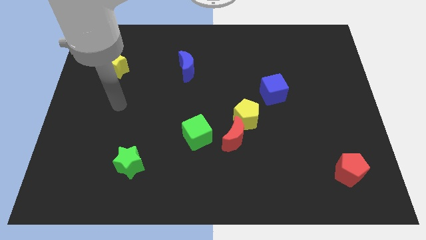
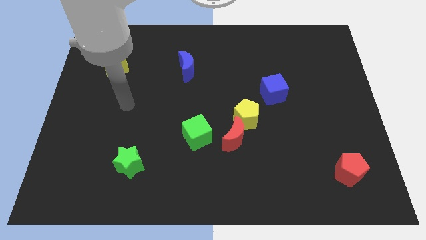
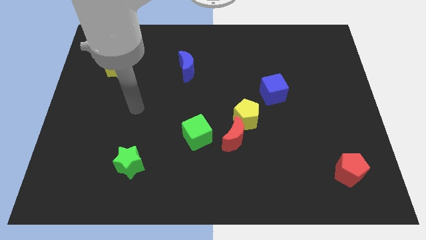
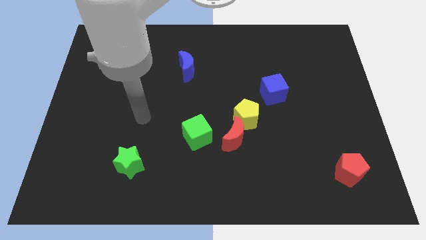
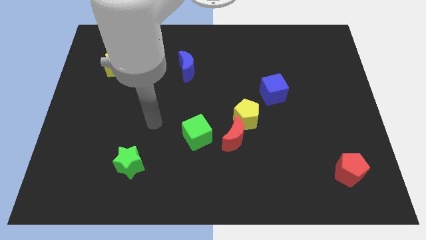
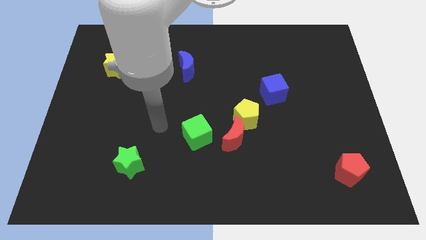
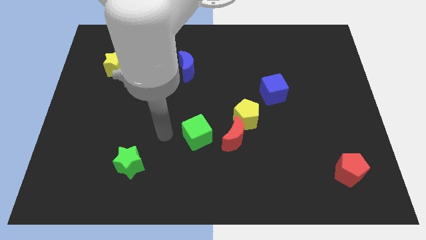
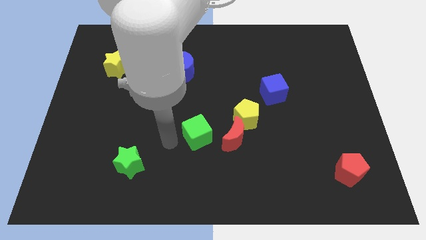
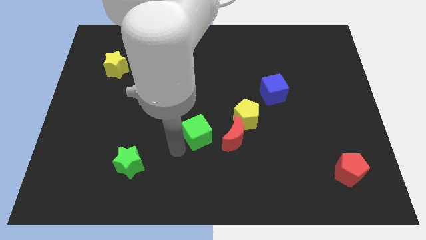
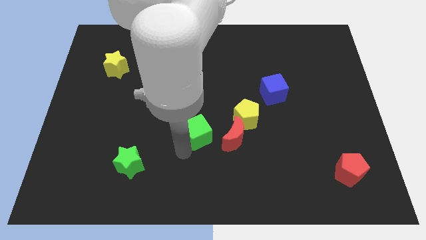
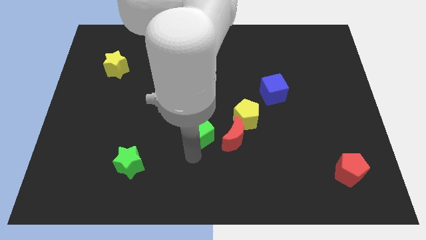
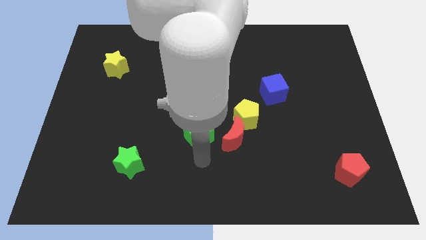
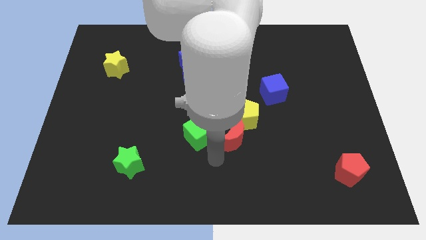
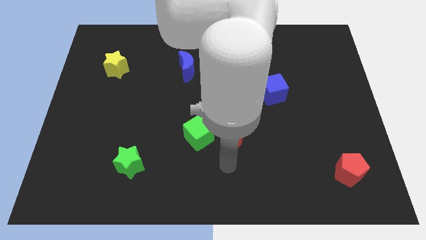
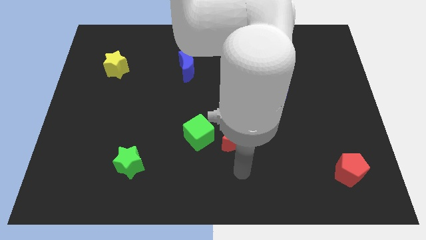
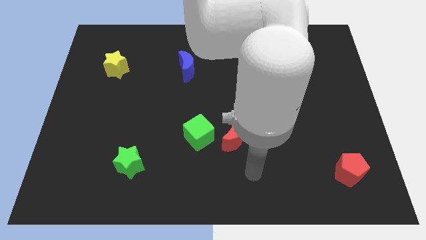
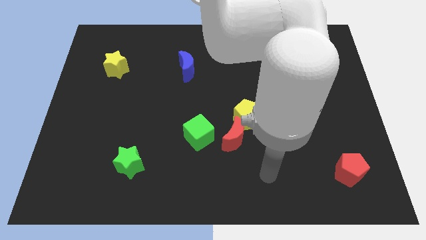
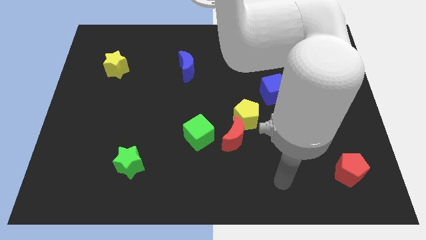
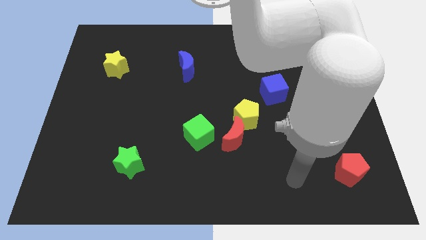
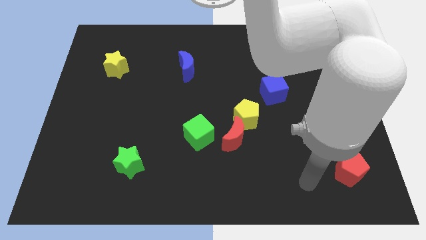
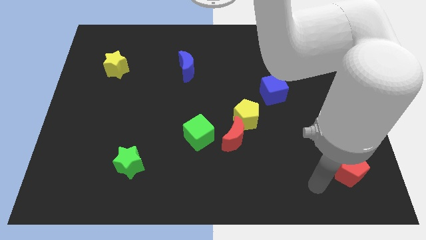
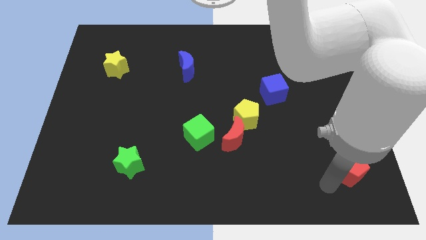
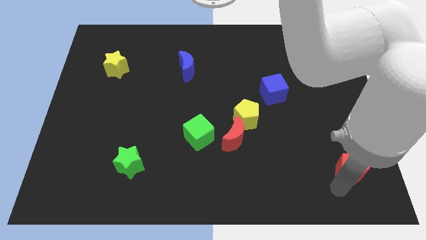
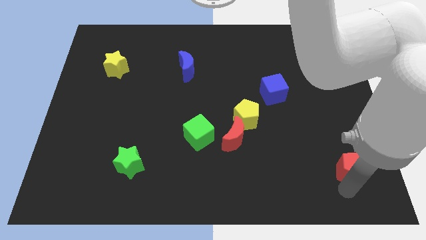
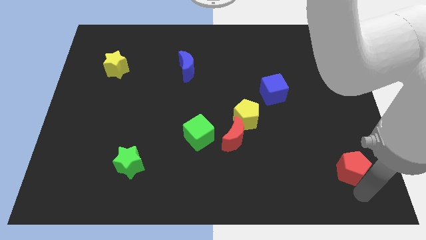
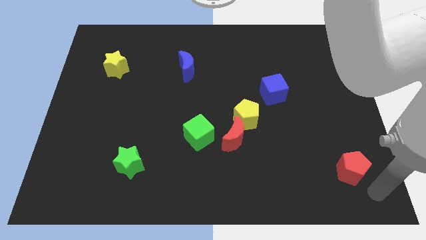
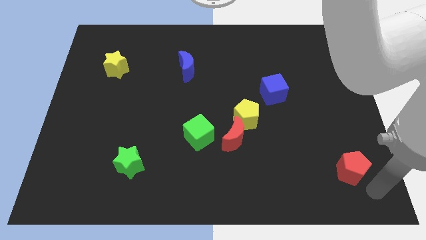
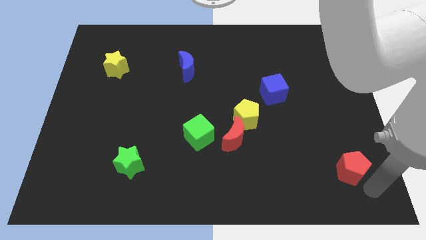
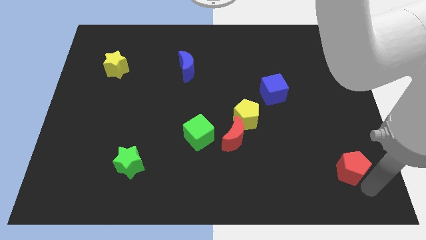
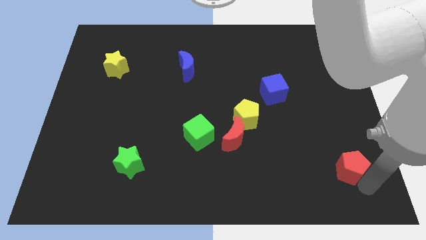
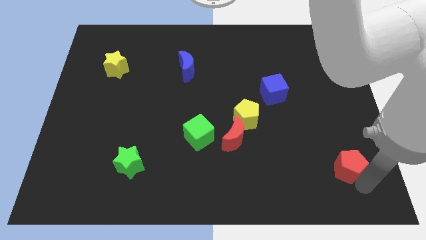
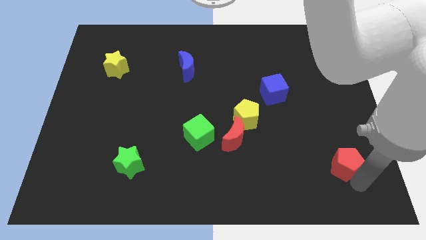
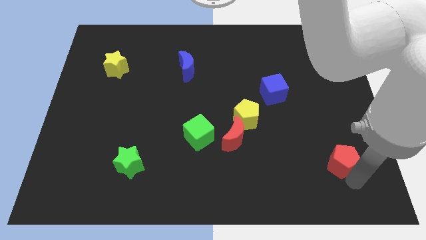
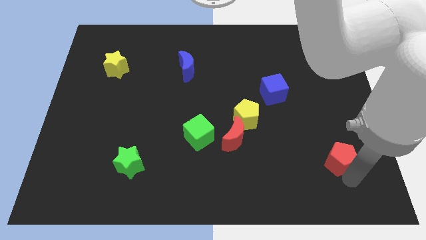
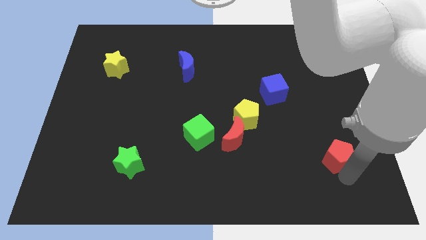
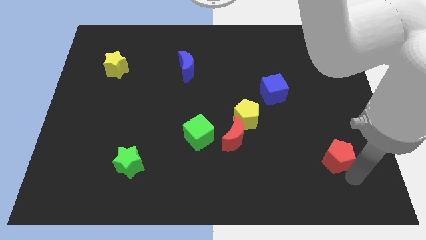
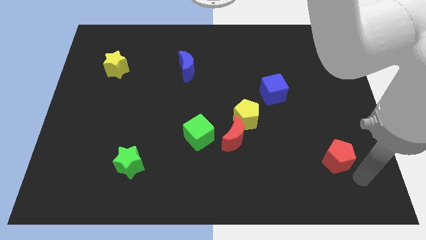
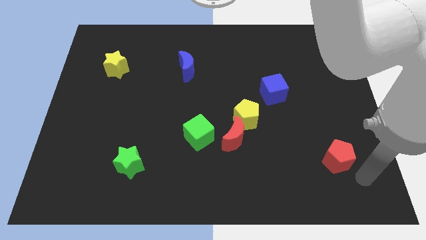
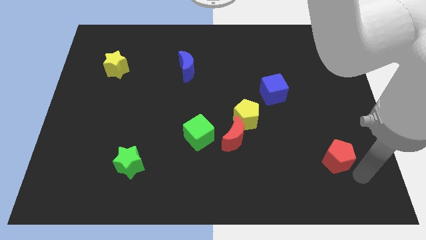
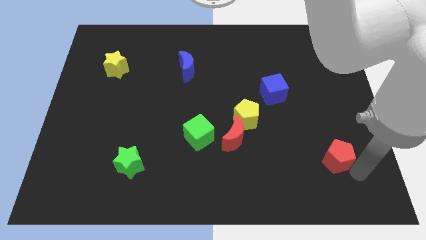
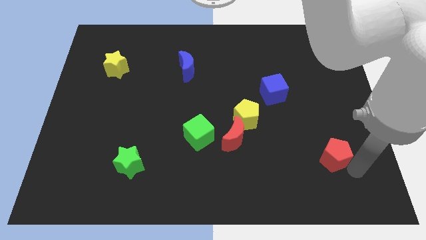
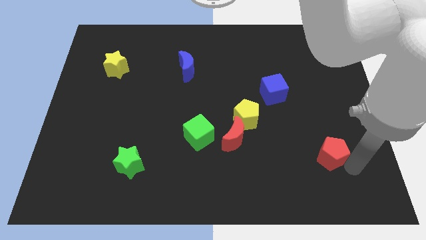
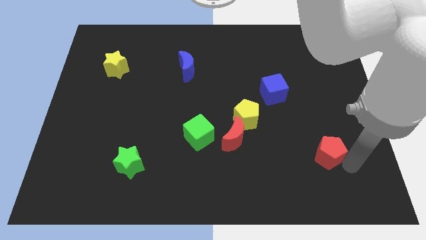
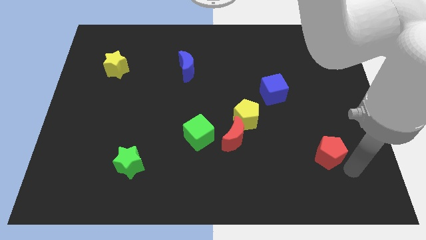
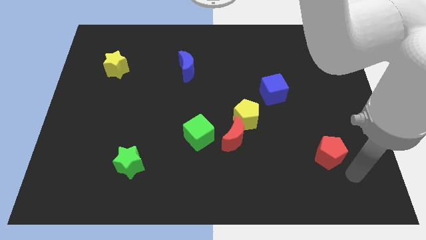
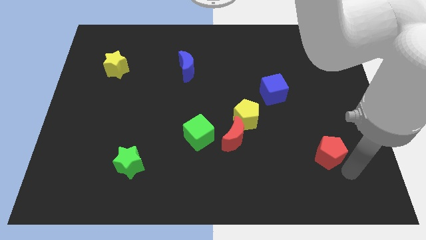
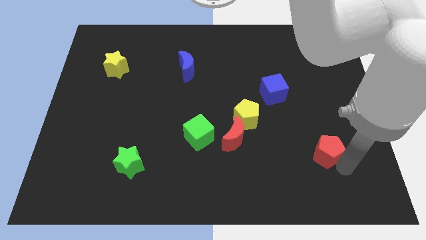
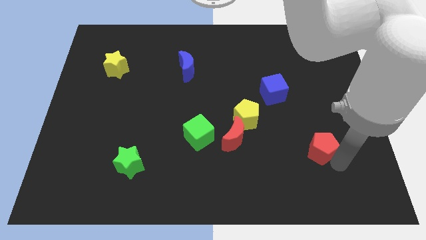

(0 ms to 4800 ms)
slightly move the red pentagon upwards and to the left

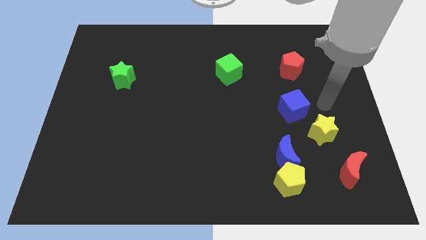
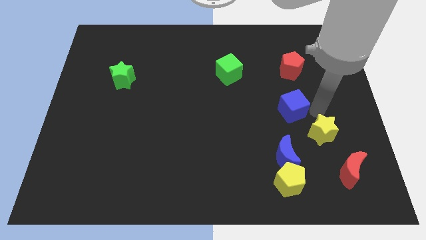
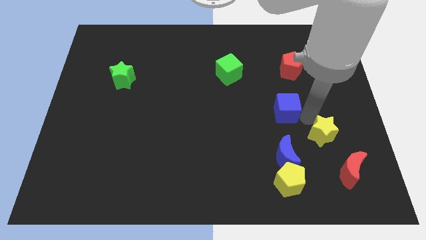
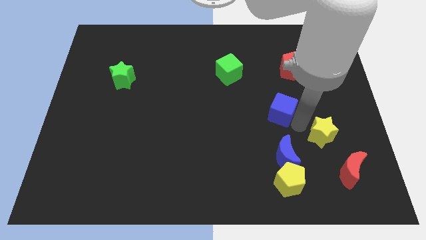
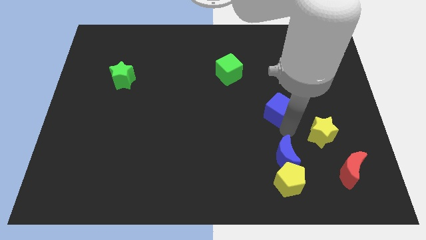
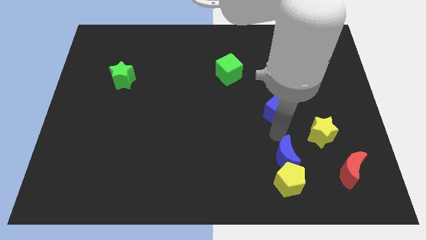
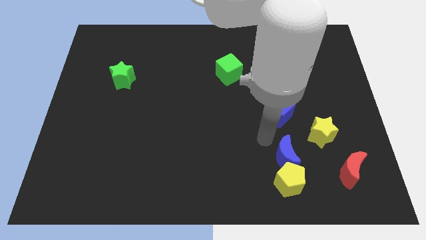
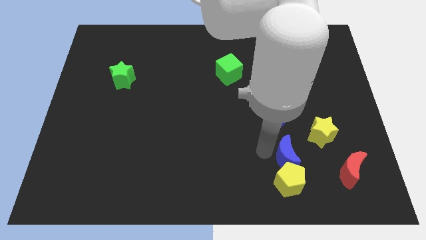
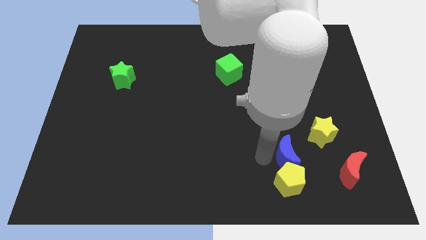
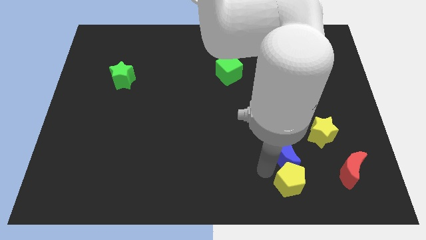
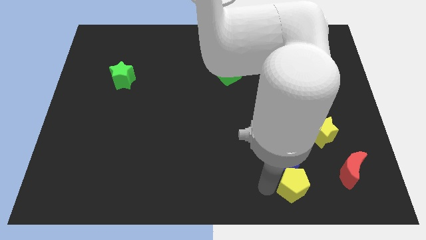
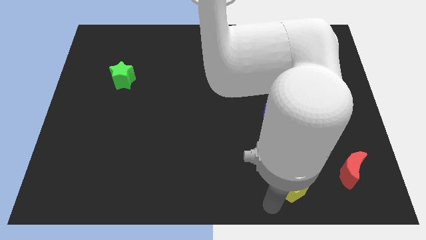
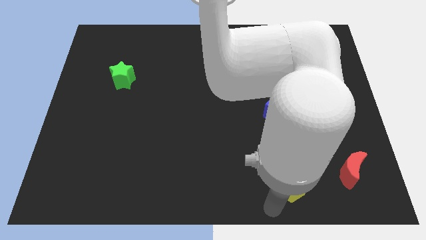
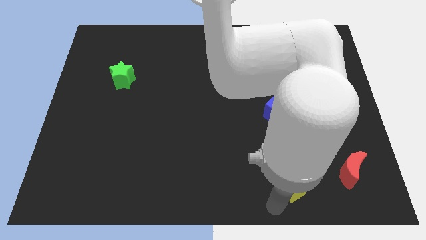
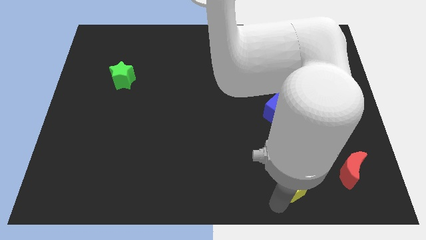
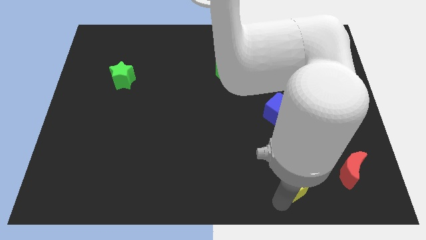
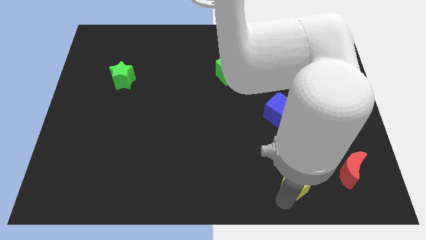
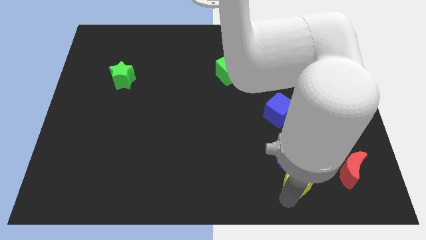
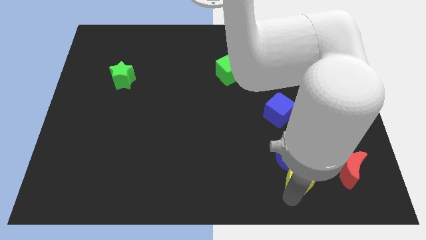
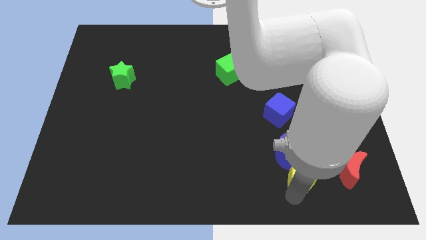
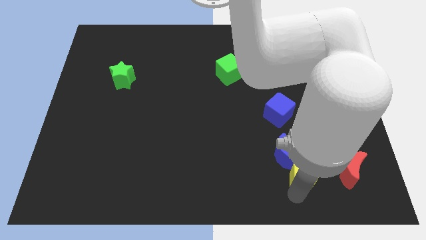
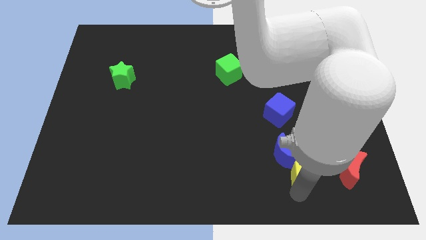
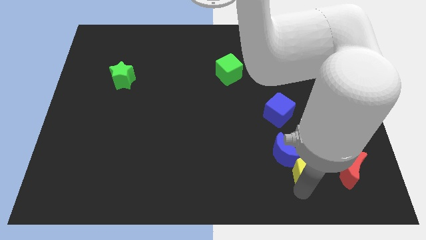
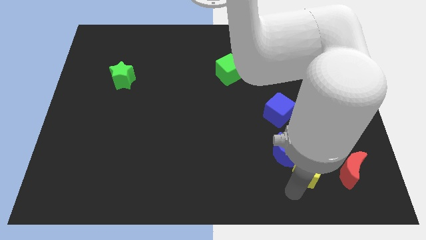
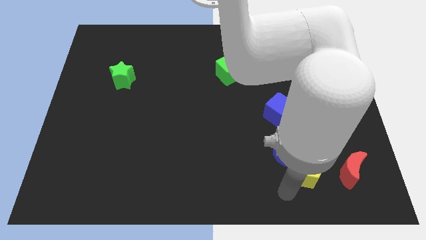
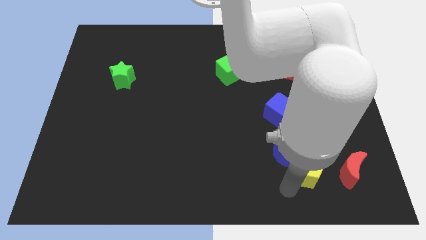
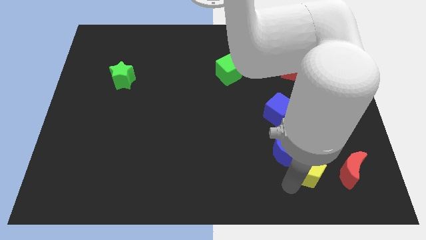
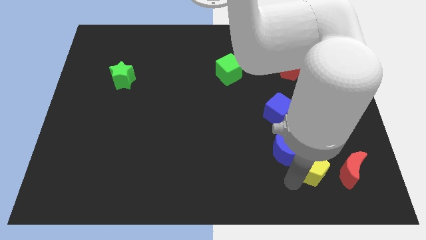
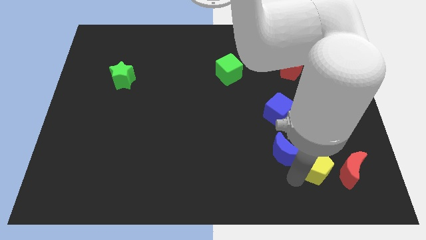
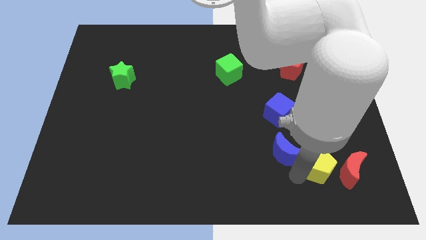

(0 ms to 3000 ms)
push the yellow pentagon slightly diagonally upwards and to the right

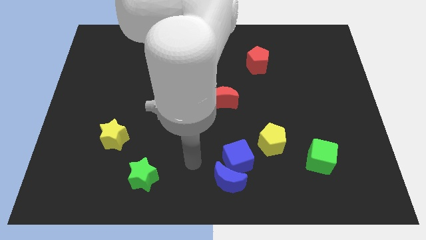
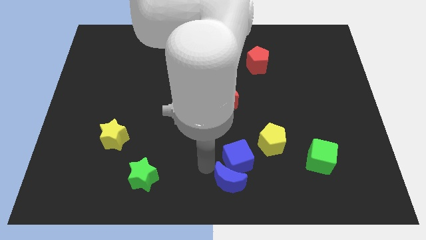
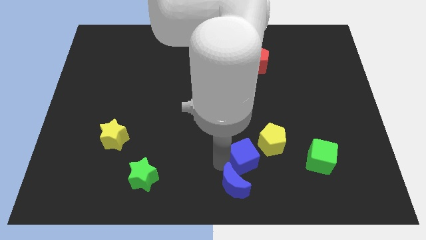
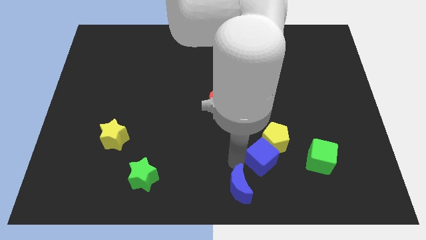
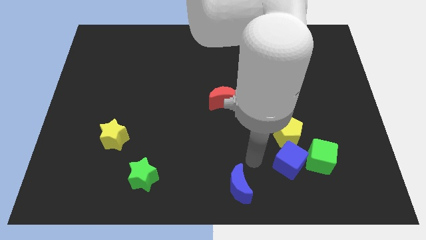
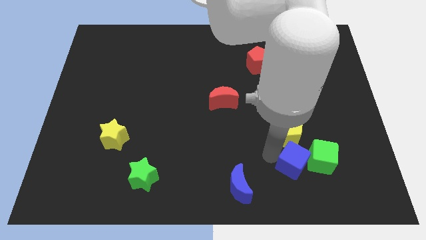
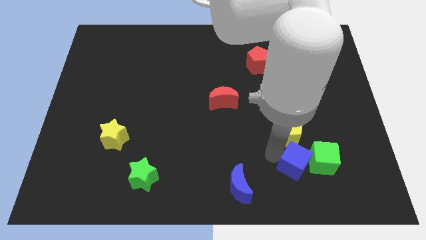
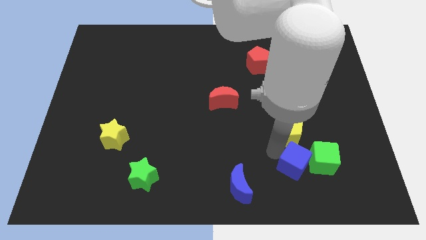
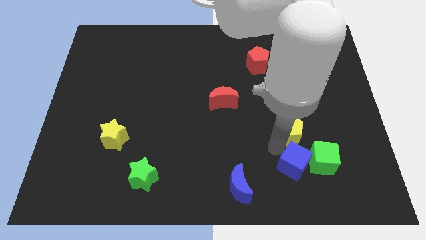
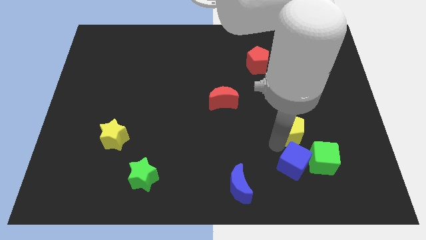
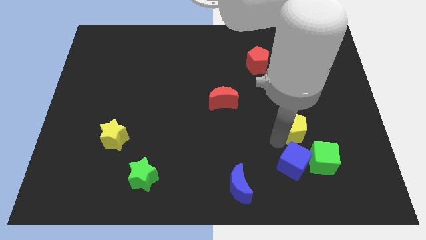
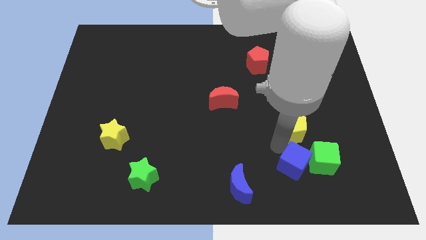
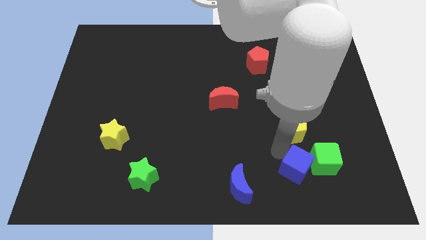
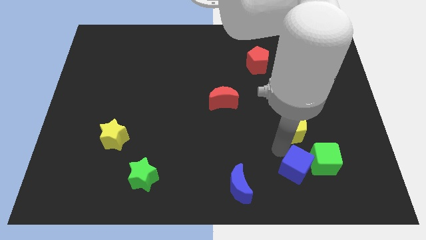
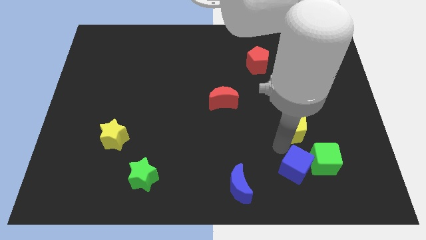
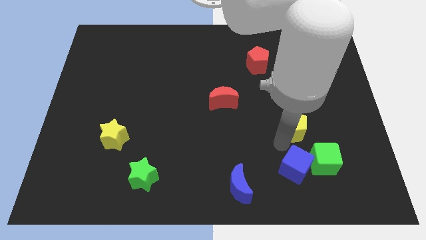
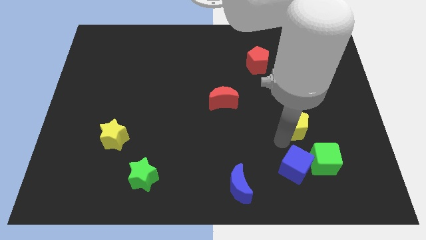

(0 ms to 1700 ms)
move the yellow pentagon a bit upwards and to the right
